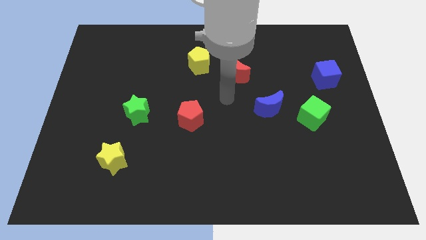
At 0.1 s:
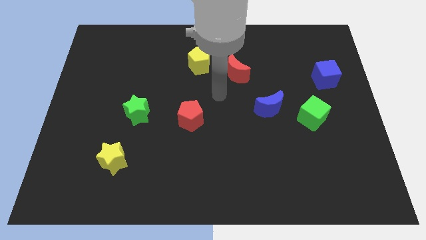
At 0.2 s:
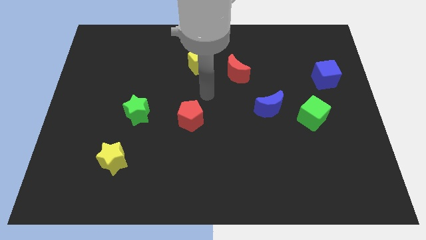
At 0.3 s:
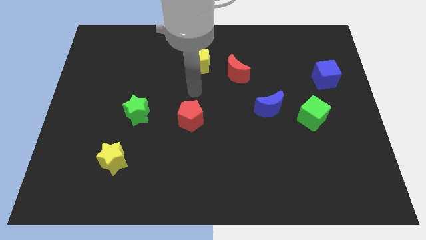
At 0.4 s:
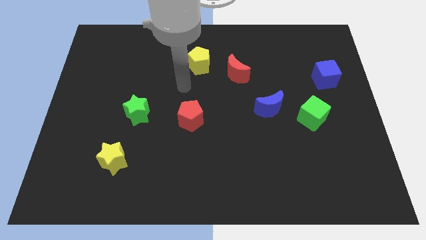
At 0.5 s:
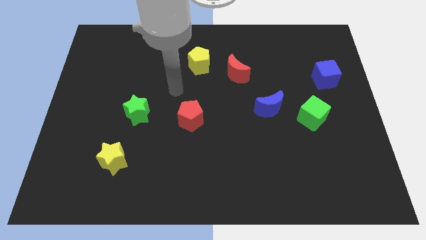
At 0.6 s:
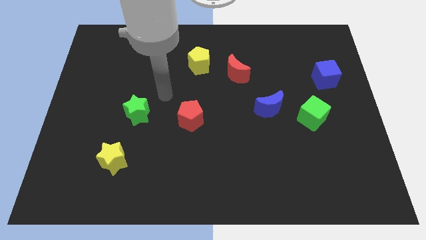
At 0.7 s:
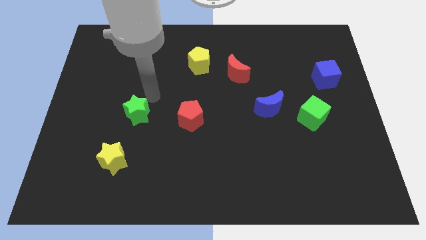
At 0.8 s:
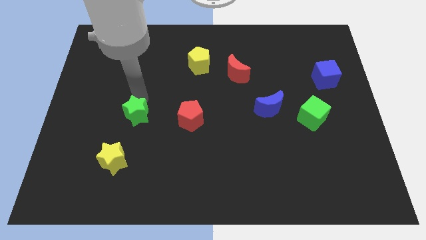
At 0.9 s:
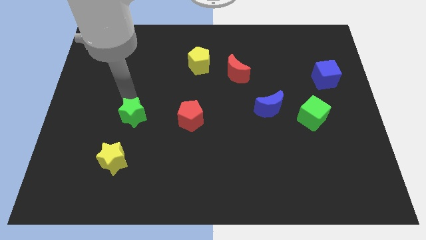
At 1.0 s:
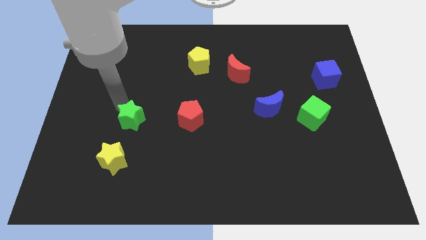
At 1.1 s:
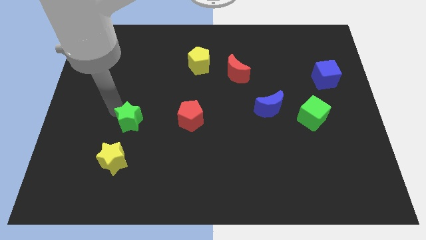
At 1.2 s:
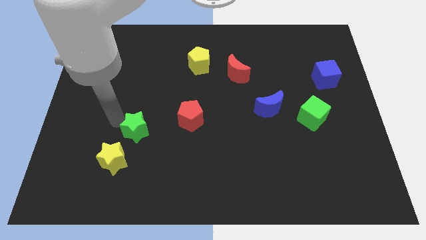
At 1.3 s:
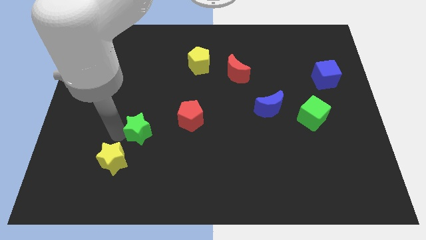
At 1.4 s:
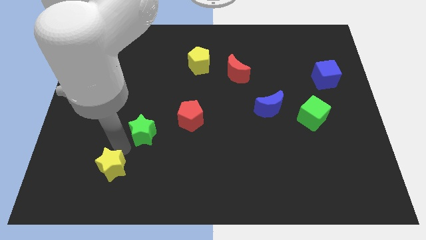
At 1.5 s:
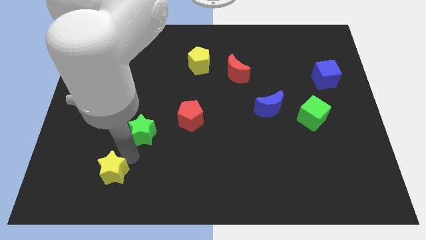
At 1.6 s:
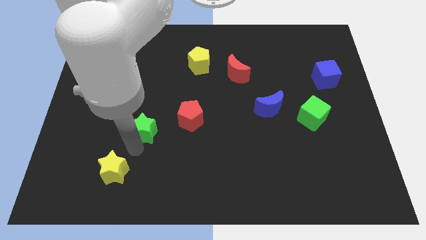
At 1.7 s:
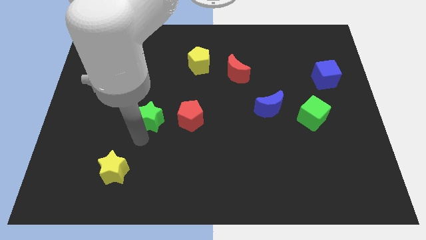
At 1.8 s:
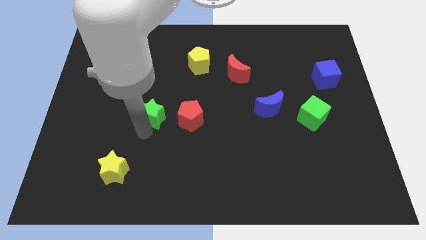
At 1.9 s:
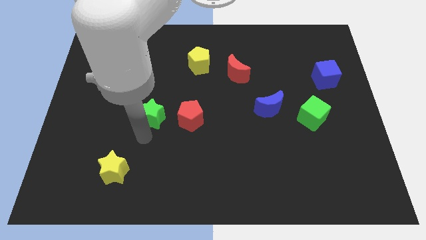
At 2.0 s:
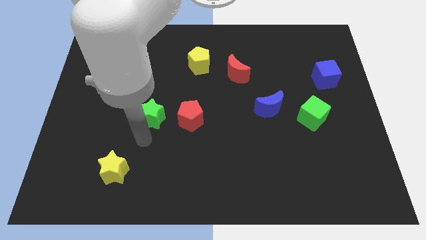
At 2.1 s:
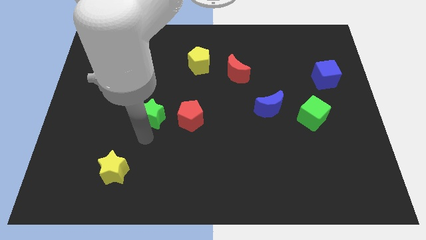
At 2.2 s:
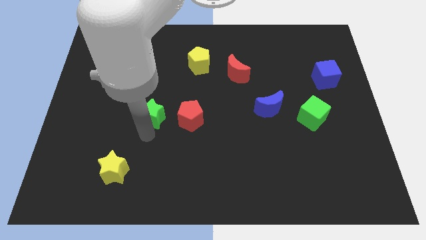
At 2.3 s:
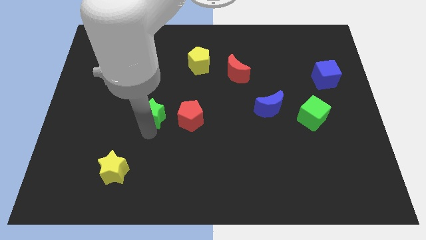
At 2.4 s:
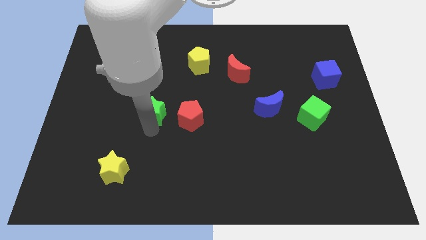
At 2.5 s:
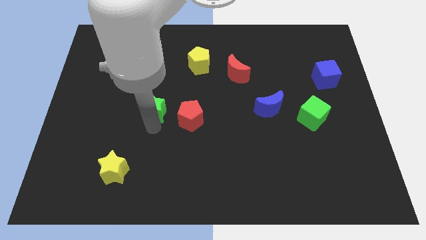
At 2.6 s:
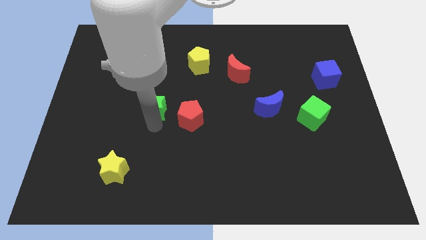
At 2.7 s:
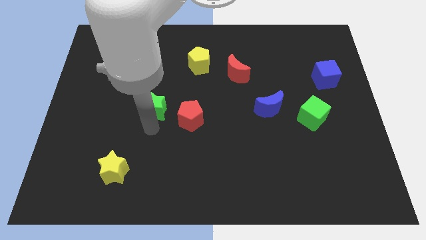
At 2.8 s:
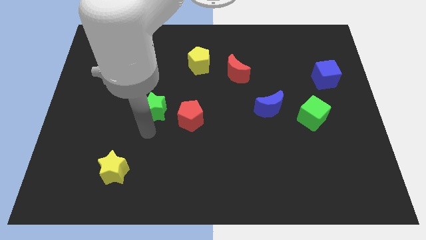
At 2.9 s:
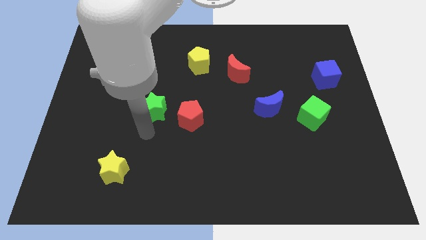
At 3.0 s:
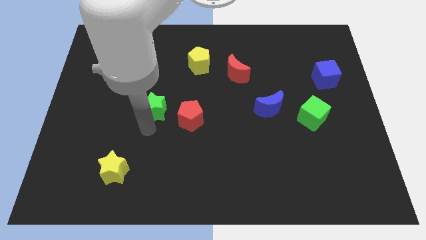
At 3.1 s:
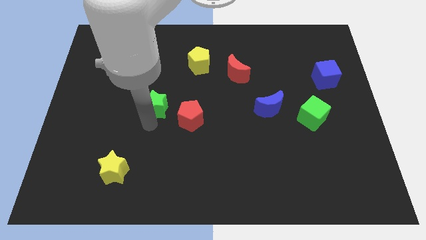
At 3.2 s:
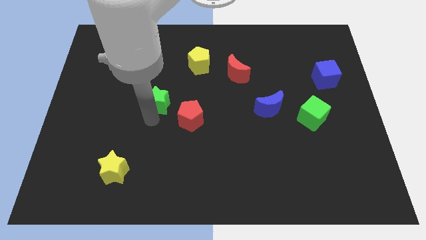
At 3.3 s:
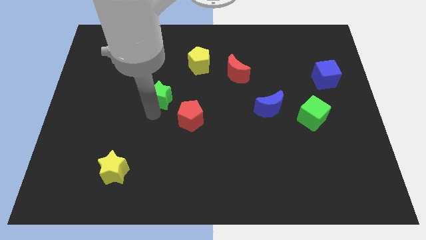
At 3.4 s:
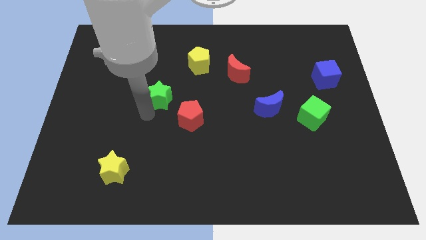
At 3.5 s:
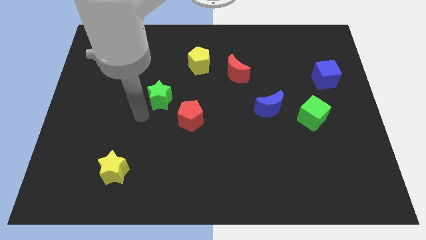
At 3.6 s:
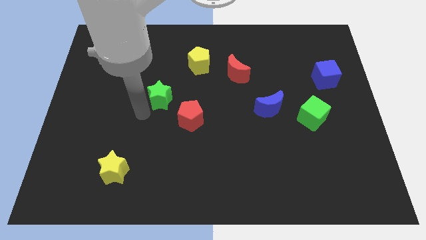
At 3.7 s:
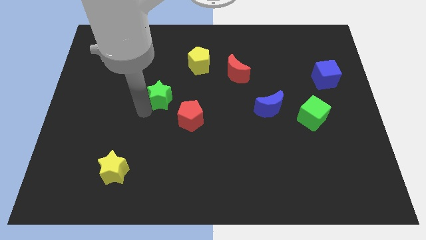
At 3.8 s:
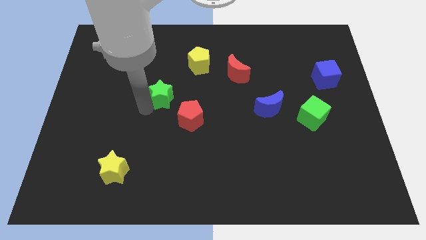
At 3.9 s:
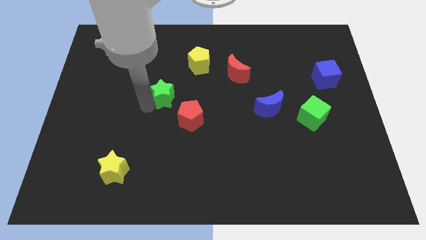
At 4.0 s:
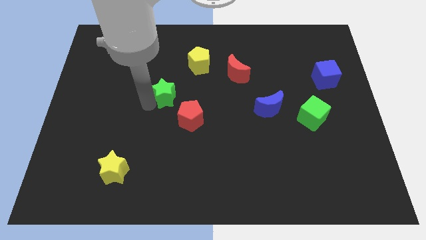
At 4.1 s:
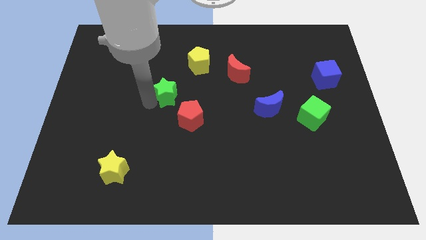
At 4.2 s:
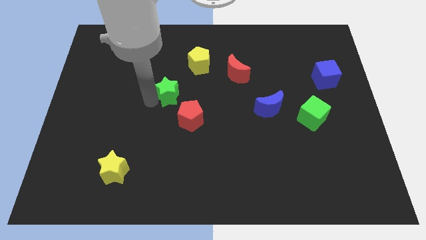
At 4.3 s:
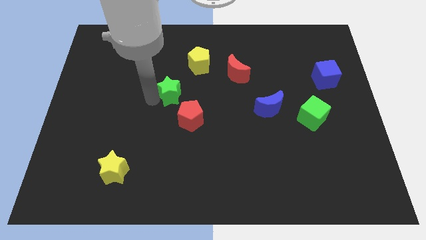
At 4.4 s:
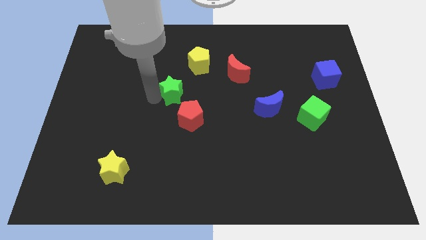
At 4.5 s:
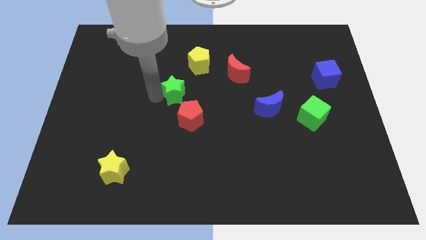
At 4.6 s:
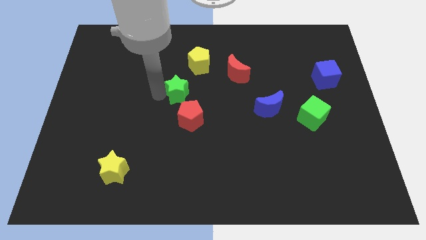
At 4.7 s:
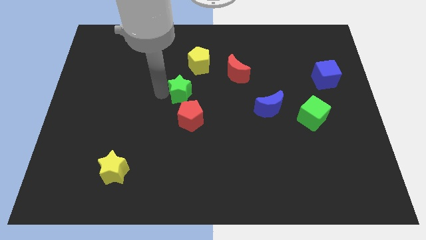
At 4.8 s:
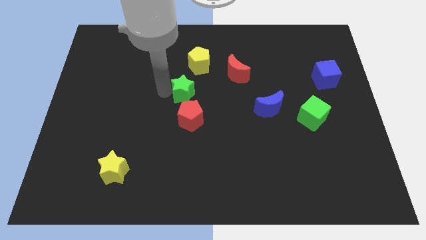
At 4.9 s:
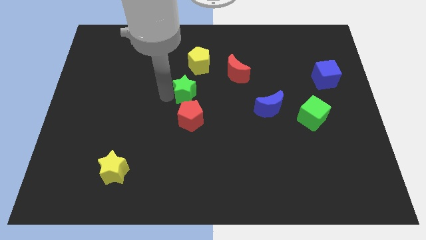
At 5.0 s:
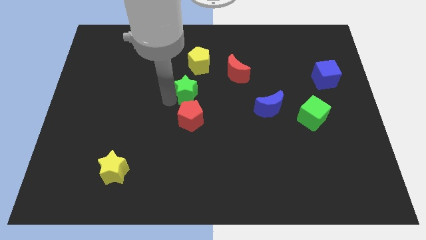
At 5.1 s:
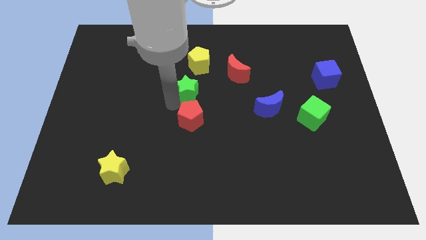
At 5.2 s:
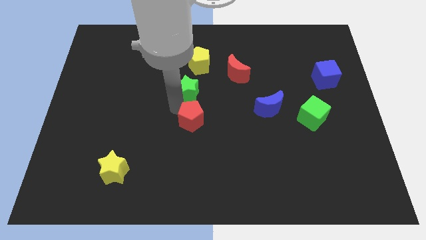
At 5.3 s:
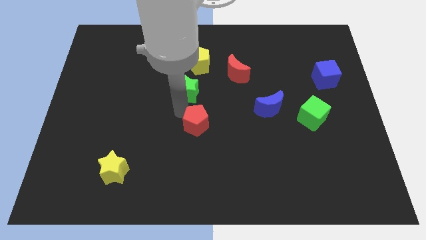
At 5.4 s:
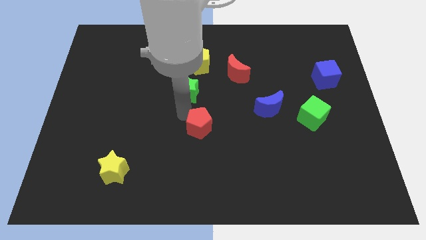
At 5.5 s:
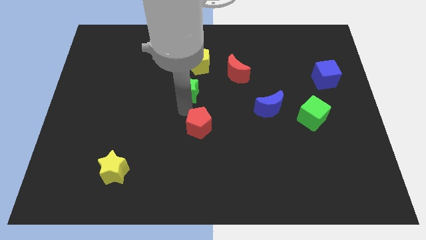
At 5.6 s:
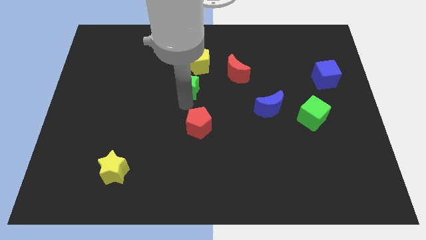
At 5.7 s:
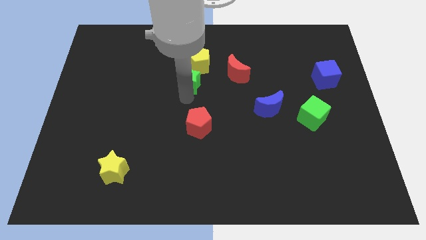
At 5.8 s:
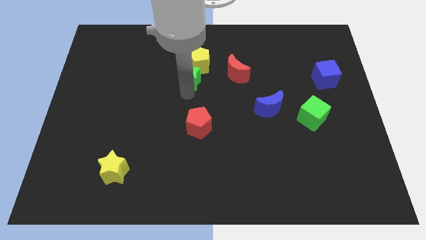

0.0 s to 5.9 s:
put the green star close to the yellow pentagon
